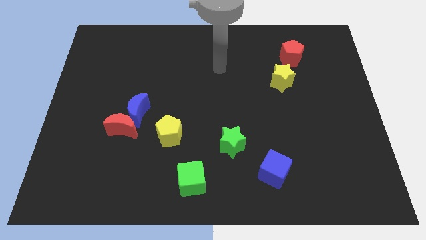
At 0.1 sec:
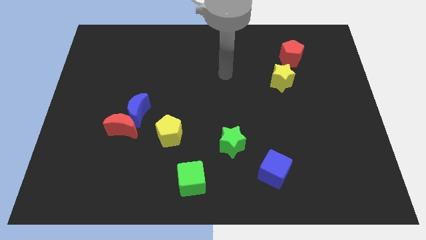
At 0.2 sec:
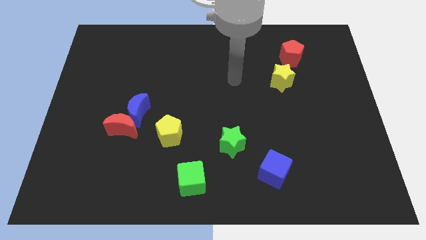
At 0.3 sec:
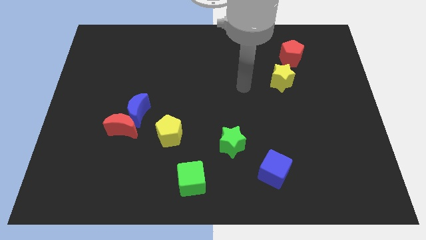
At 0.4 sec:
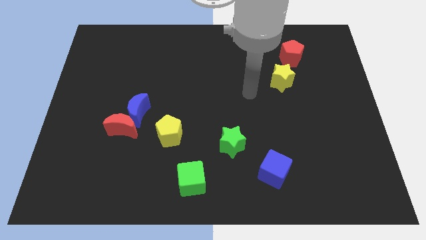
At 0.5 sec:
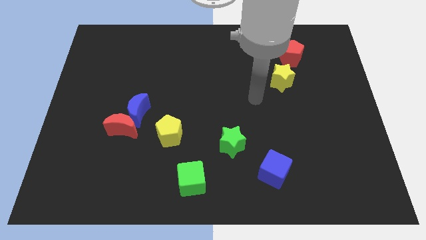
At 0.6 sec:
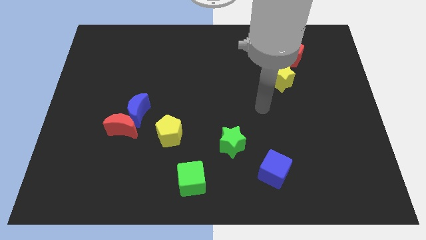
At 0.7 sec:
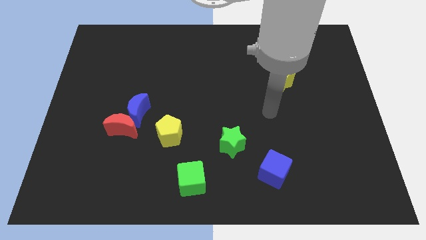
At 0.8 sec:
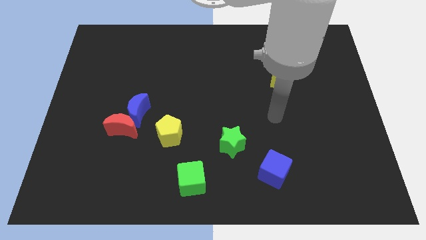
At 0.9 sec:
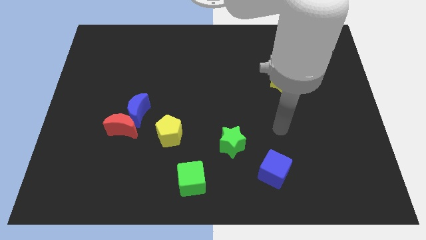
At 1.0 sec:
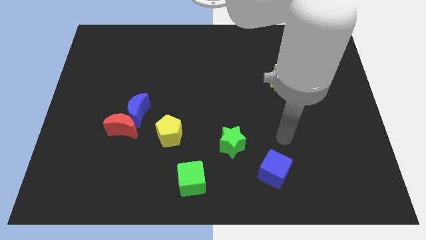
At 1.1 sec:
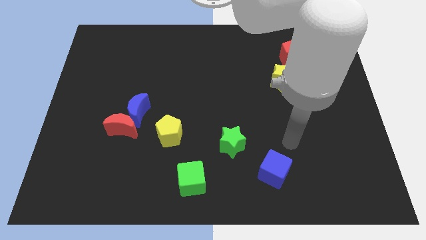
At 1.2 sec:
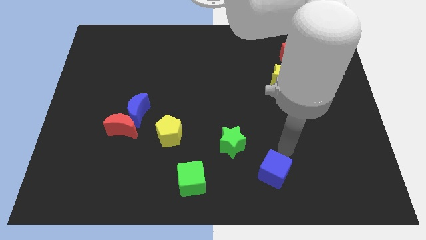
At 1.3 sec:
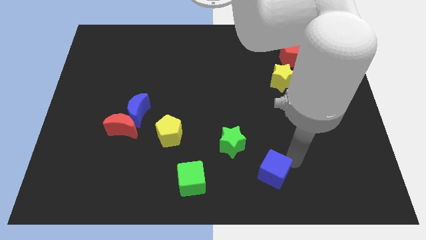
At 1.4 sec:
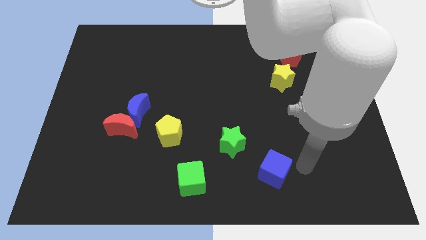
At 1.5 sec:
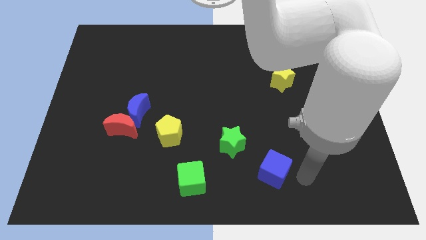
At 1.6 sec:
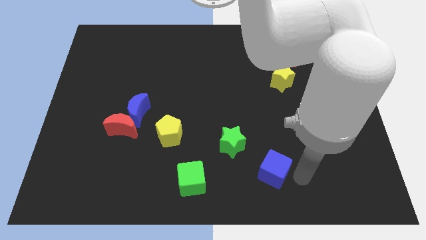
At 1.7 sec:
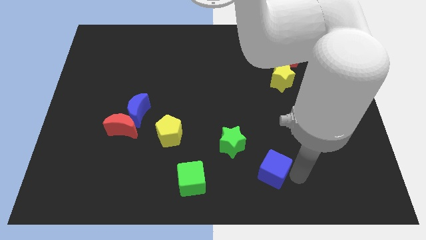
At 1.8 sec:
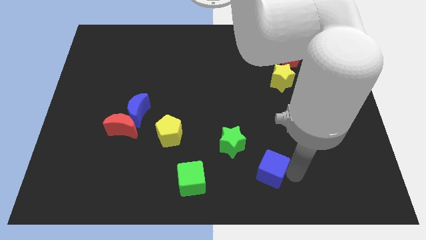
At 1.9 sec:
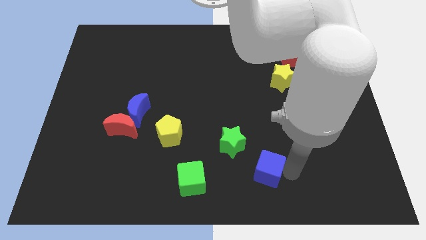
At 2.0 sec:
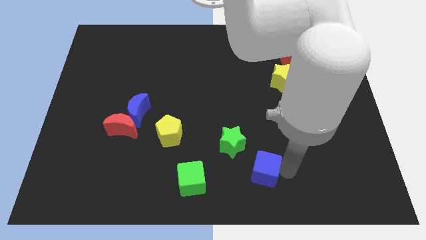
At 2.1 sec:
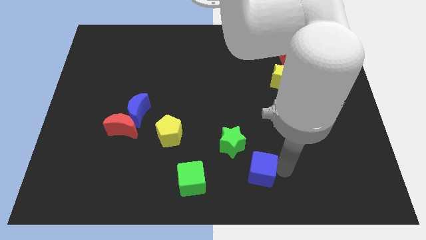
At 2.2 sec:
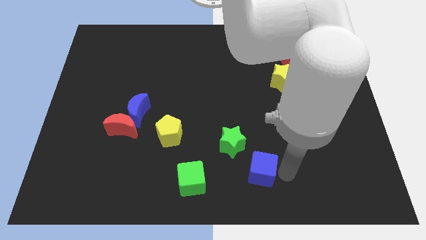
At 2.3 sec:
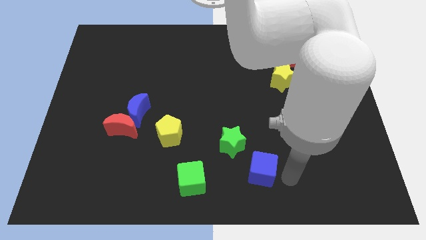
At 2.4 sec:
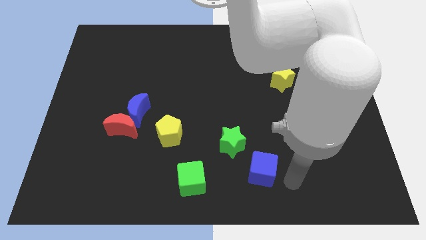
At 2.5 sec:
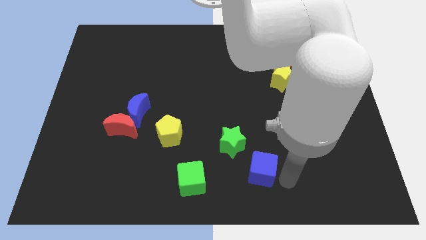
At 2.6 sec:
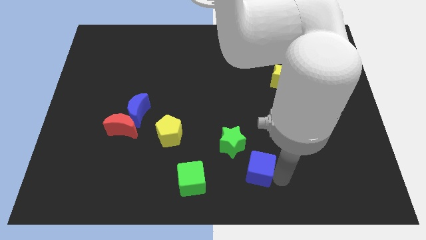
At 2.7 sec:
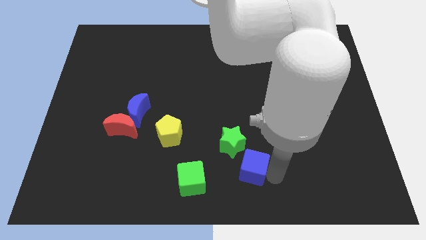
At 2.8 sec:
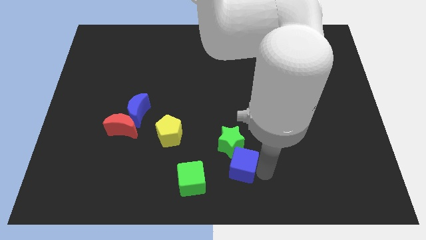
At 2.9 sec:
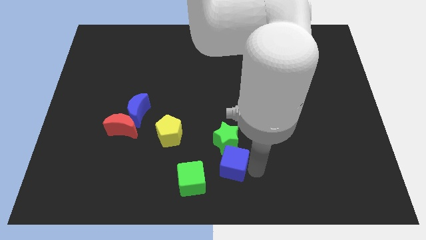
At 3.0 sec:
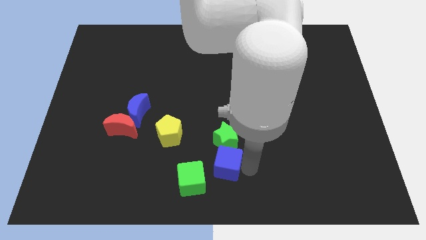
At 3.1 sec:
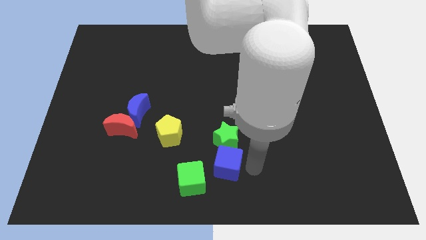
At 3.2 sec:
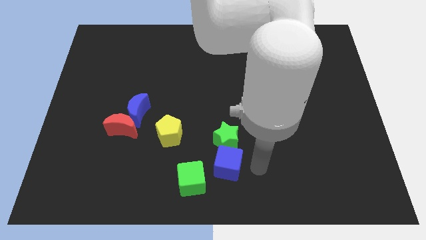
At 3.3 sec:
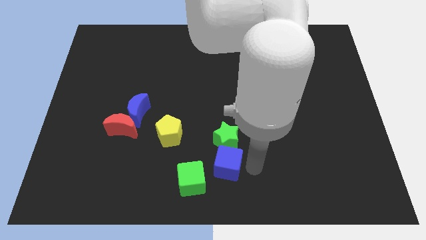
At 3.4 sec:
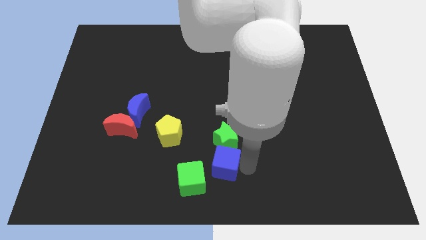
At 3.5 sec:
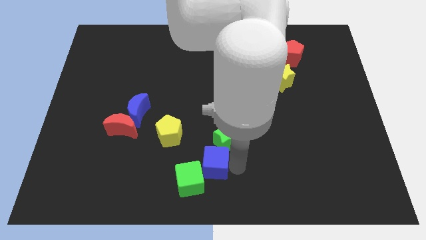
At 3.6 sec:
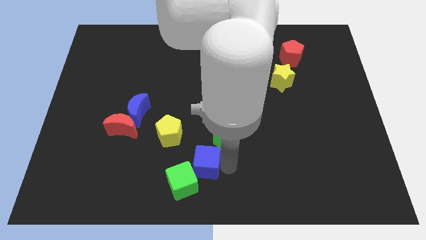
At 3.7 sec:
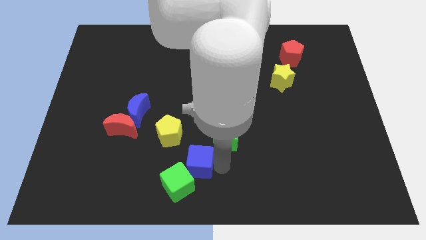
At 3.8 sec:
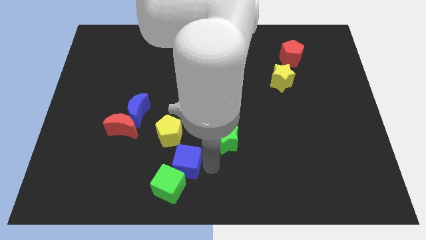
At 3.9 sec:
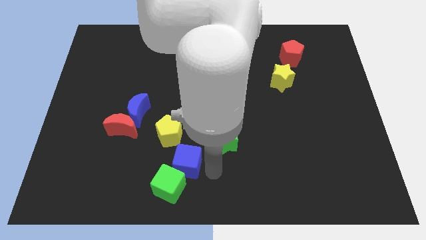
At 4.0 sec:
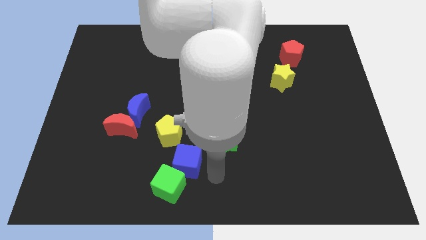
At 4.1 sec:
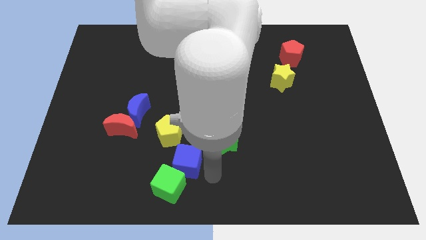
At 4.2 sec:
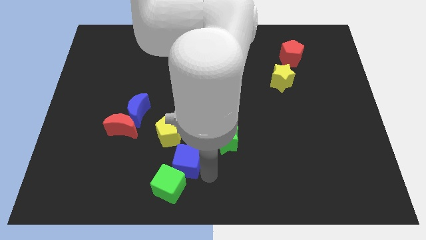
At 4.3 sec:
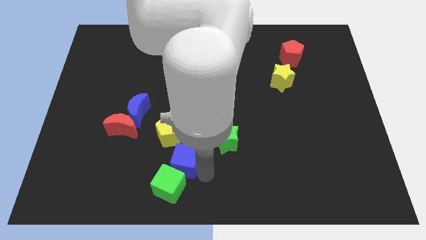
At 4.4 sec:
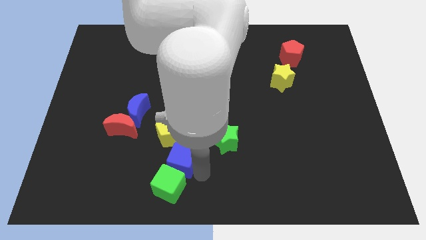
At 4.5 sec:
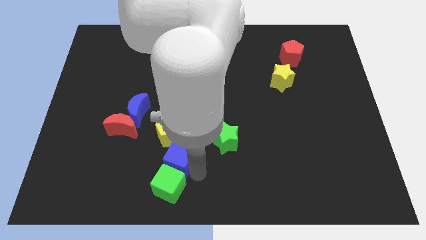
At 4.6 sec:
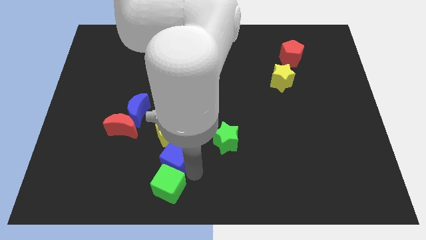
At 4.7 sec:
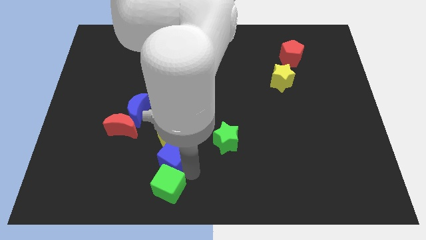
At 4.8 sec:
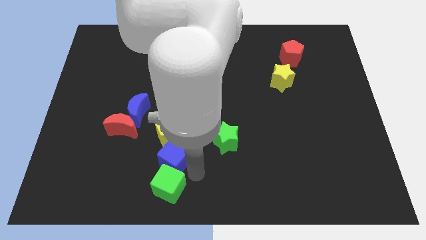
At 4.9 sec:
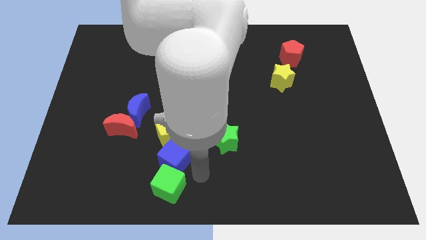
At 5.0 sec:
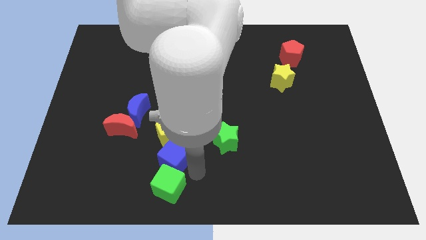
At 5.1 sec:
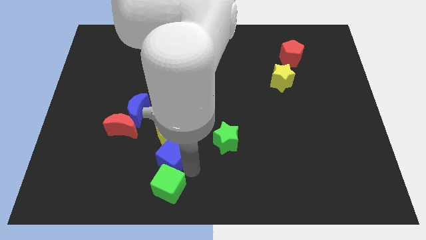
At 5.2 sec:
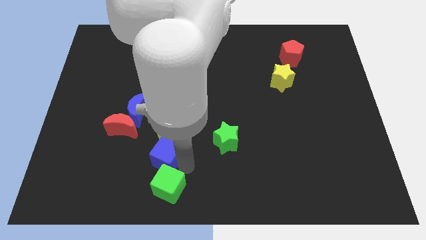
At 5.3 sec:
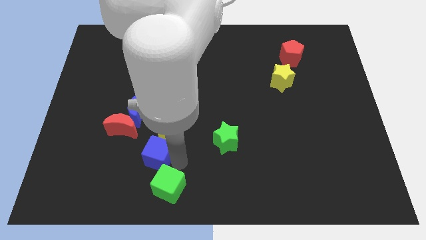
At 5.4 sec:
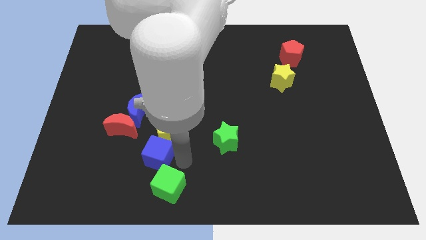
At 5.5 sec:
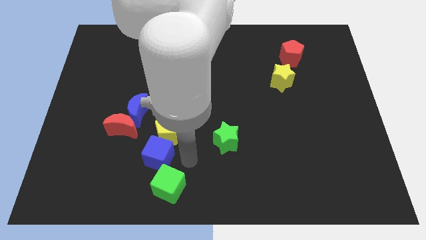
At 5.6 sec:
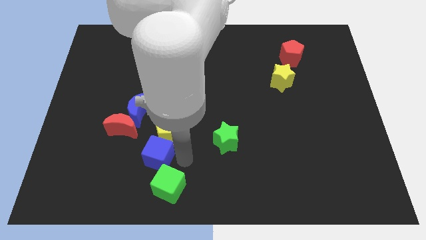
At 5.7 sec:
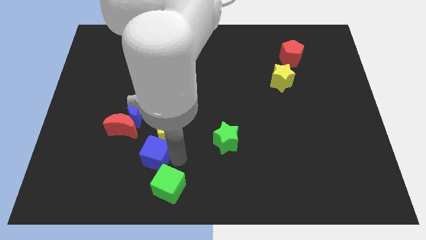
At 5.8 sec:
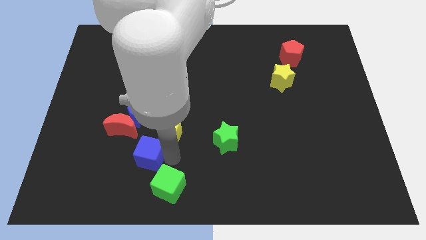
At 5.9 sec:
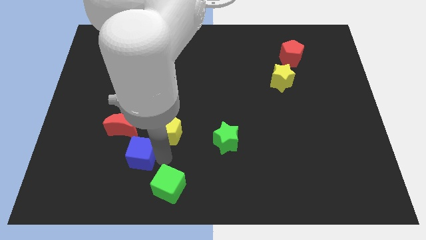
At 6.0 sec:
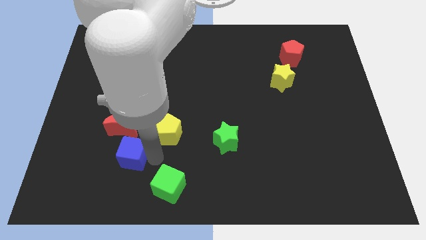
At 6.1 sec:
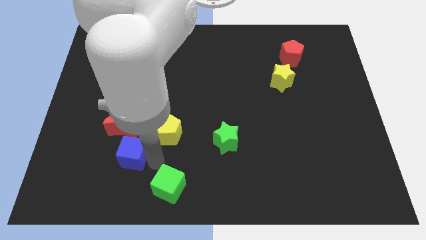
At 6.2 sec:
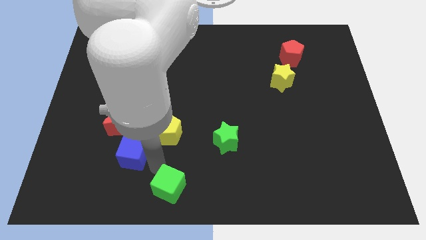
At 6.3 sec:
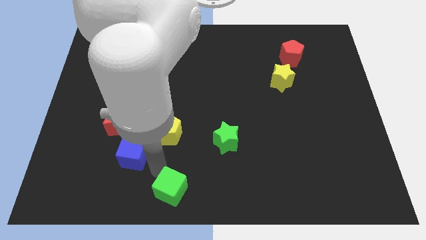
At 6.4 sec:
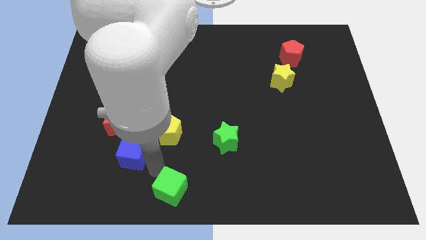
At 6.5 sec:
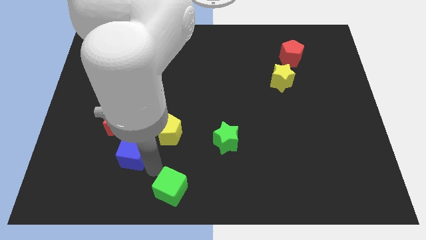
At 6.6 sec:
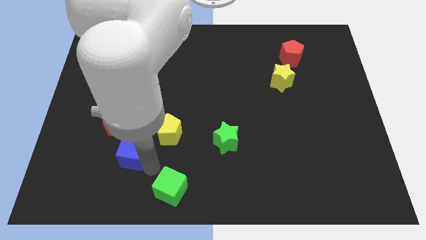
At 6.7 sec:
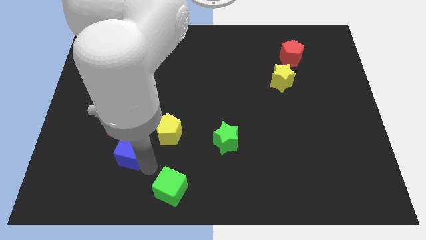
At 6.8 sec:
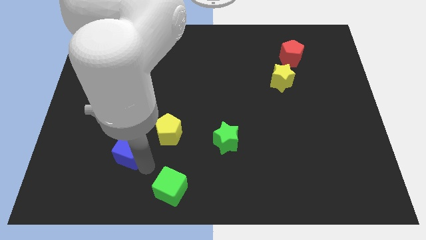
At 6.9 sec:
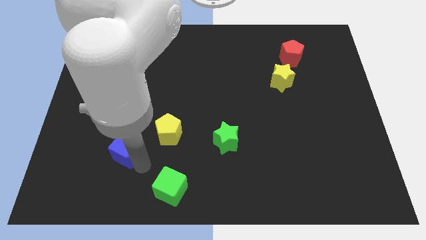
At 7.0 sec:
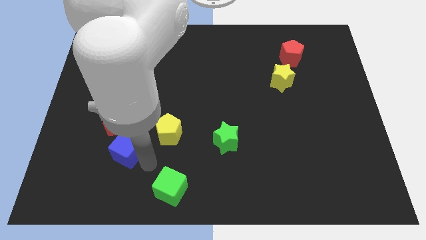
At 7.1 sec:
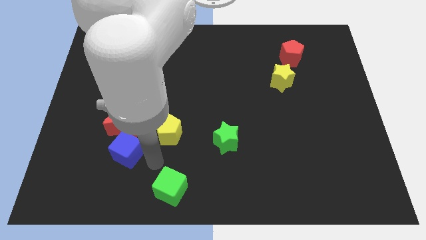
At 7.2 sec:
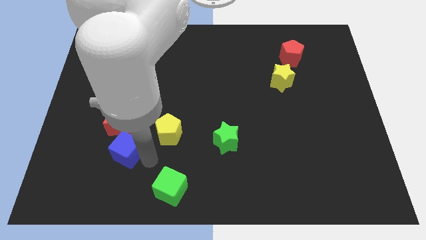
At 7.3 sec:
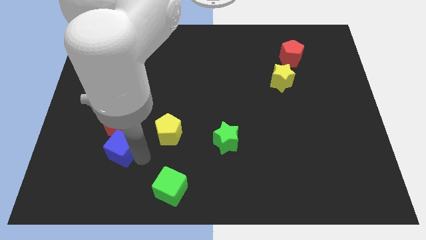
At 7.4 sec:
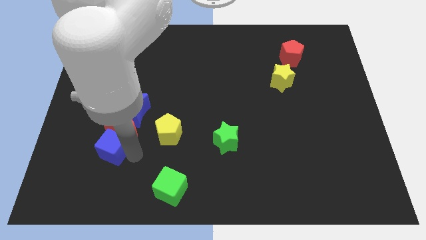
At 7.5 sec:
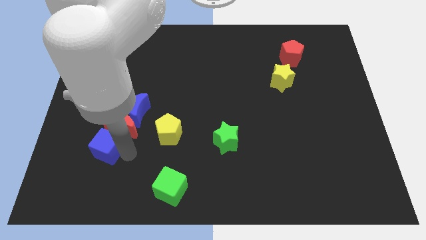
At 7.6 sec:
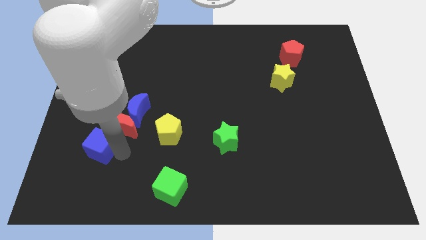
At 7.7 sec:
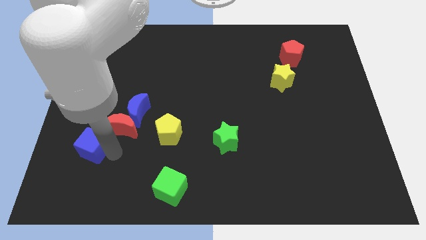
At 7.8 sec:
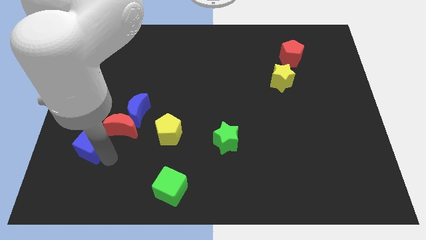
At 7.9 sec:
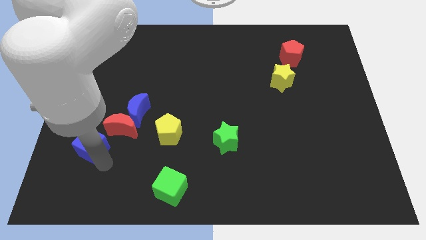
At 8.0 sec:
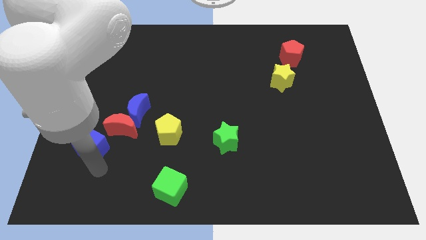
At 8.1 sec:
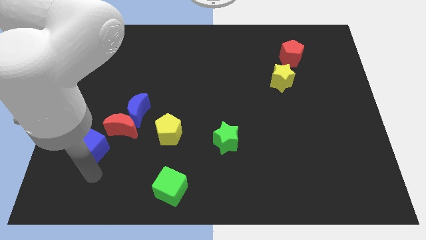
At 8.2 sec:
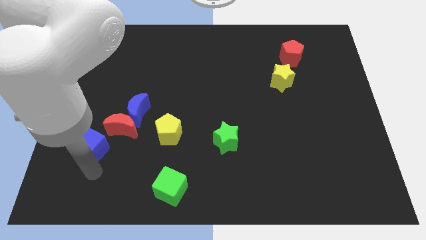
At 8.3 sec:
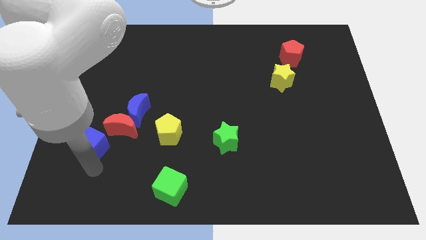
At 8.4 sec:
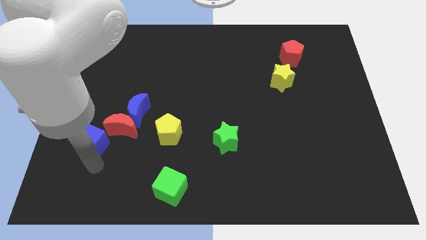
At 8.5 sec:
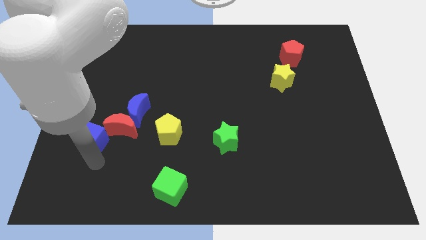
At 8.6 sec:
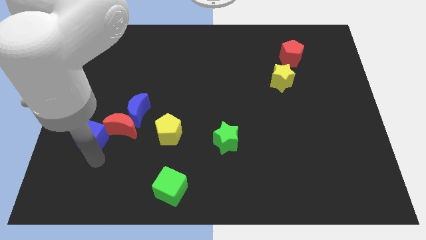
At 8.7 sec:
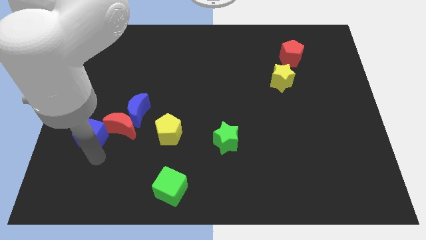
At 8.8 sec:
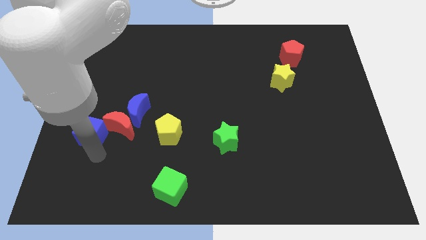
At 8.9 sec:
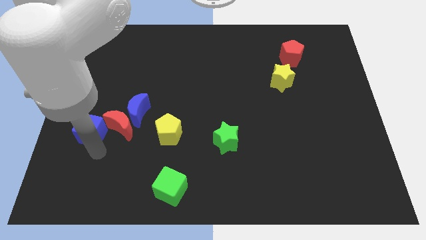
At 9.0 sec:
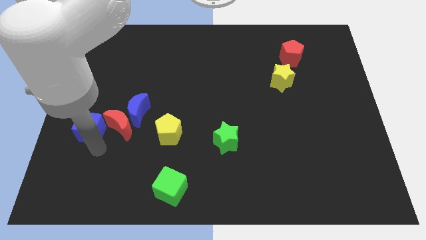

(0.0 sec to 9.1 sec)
put the blue cube to the left of the blue moon
